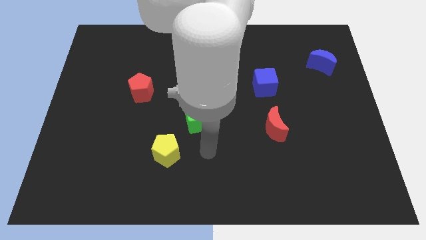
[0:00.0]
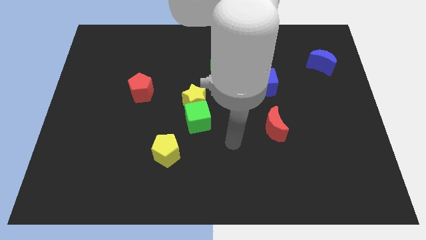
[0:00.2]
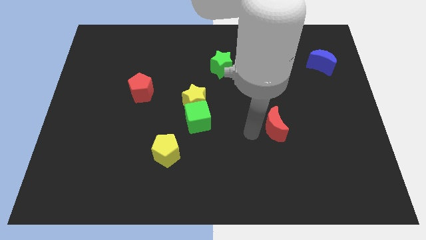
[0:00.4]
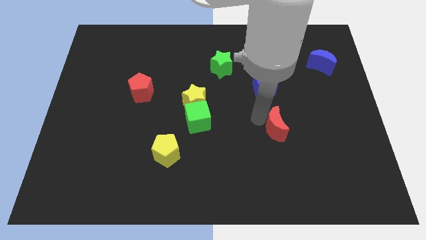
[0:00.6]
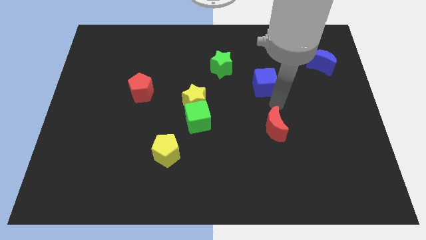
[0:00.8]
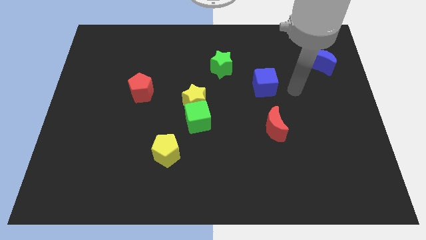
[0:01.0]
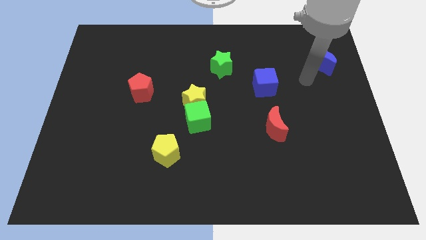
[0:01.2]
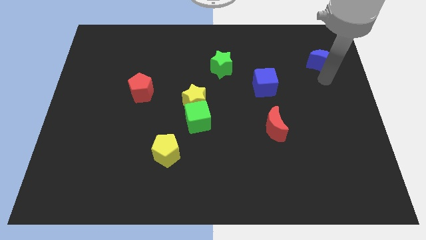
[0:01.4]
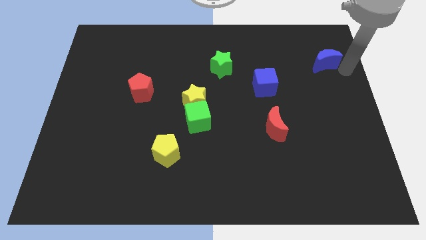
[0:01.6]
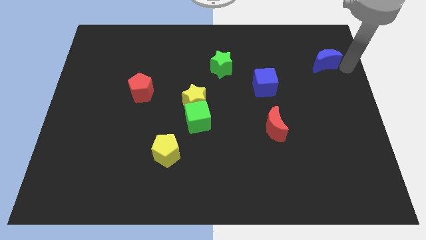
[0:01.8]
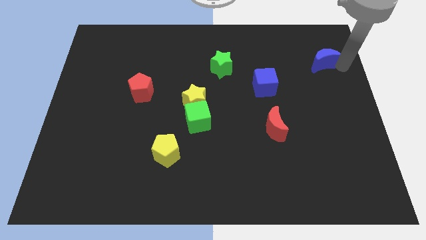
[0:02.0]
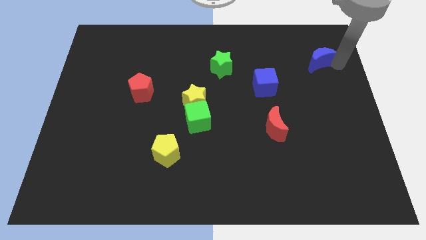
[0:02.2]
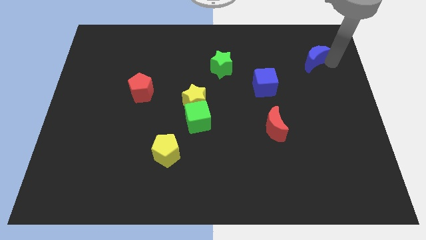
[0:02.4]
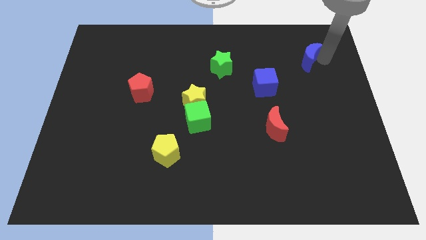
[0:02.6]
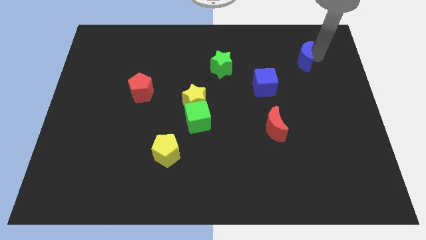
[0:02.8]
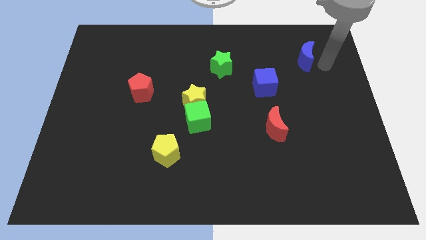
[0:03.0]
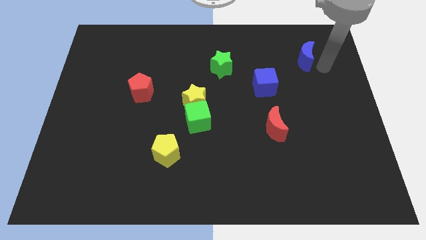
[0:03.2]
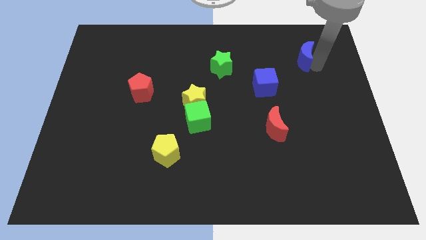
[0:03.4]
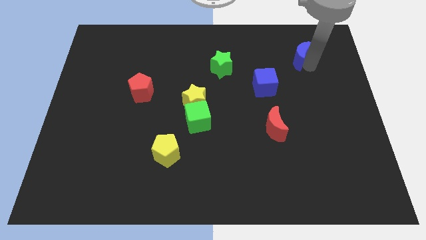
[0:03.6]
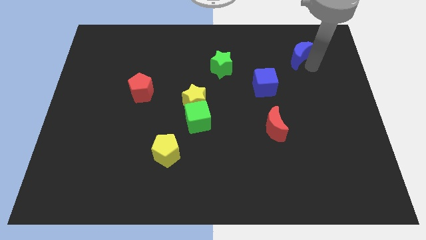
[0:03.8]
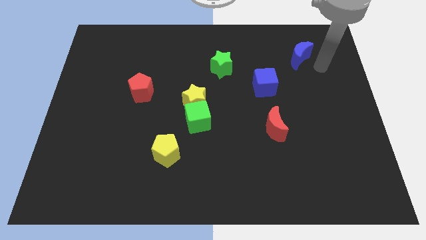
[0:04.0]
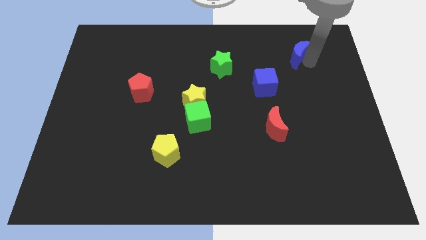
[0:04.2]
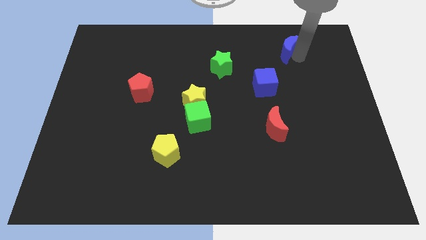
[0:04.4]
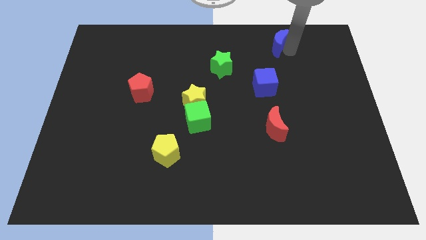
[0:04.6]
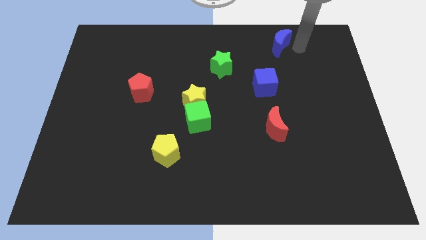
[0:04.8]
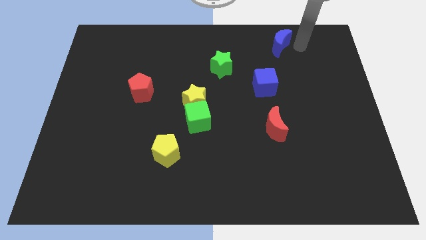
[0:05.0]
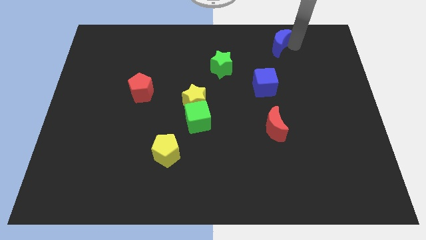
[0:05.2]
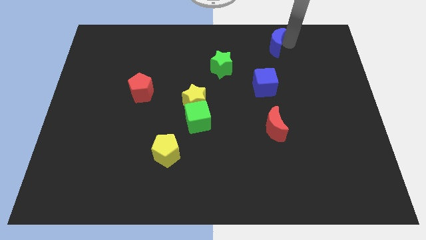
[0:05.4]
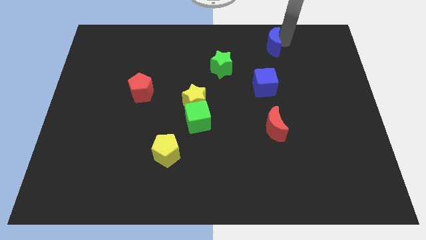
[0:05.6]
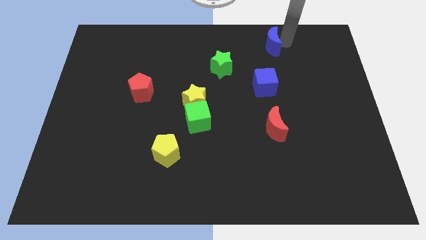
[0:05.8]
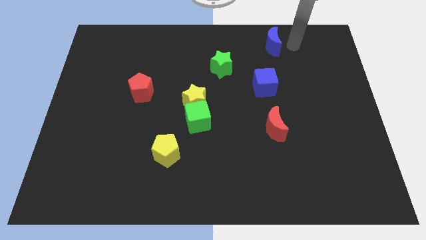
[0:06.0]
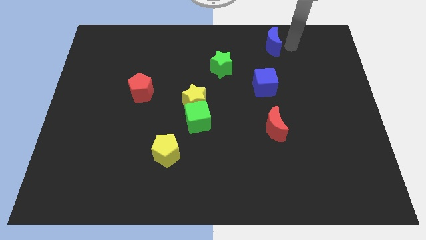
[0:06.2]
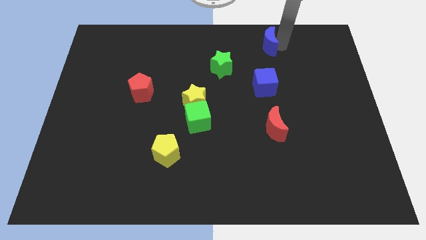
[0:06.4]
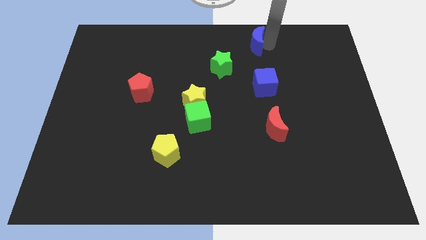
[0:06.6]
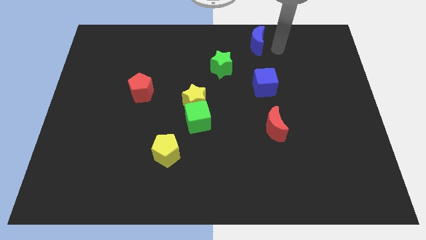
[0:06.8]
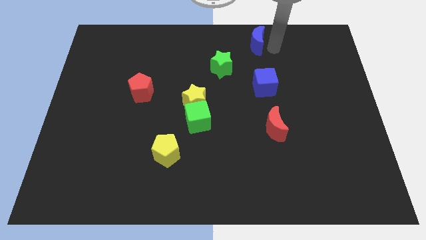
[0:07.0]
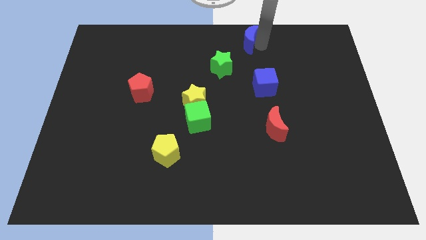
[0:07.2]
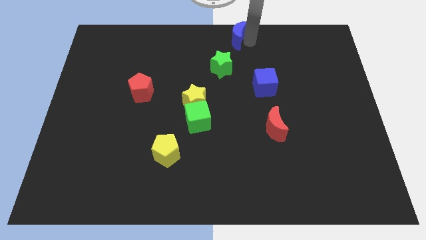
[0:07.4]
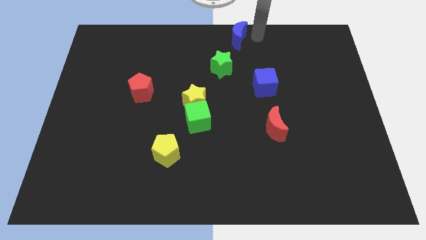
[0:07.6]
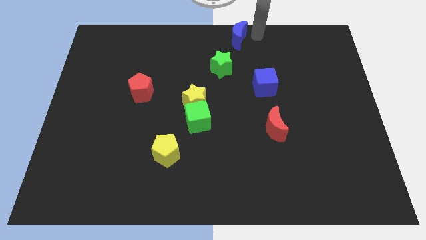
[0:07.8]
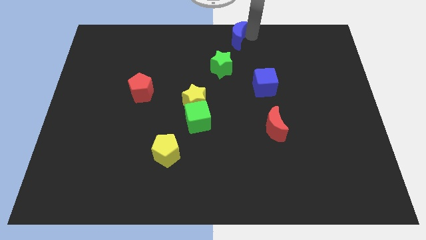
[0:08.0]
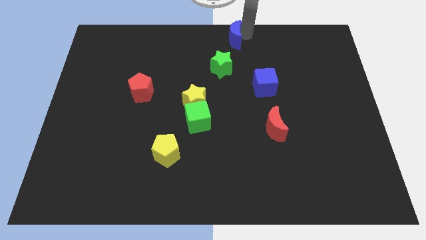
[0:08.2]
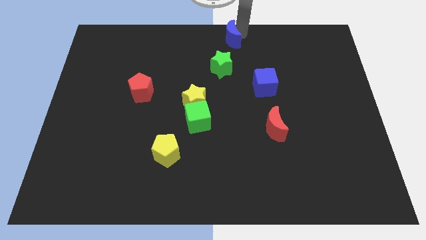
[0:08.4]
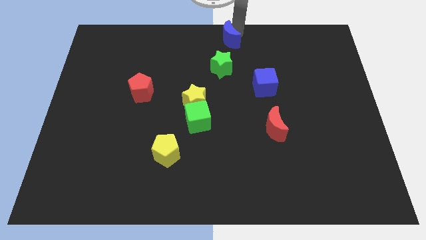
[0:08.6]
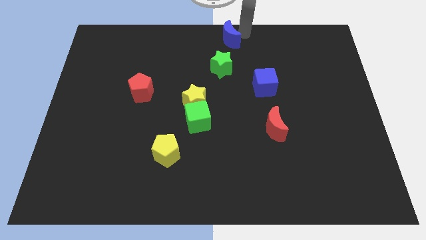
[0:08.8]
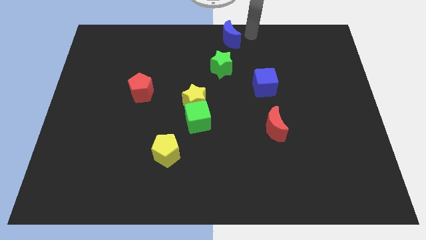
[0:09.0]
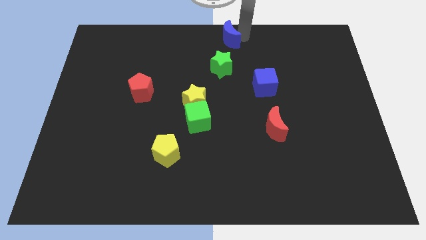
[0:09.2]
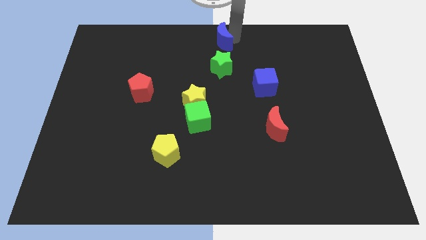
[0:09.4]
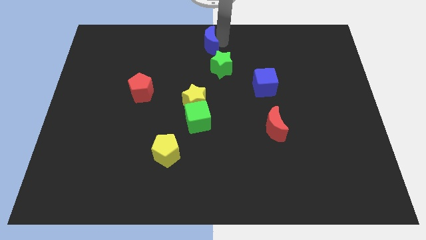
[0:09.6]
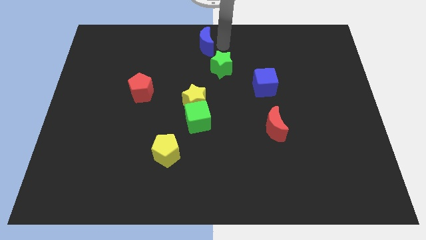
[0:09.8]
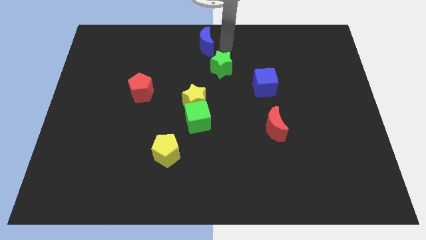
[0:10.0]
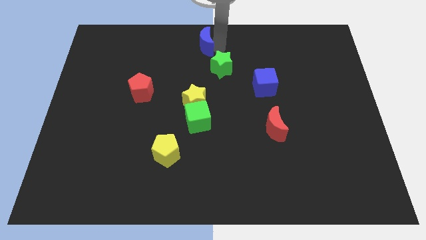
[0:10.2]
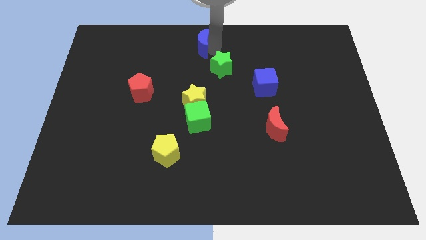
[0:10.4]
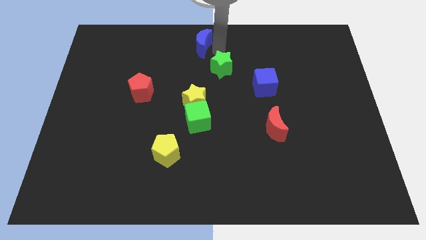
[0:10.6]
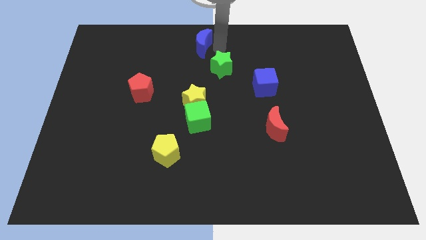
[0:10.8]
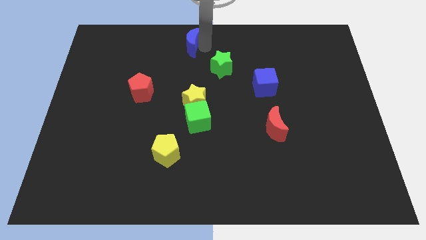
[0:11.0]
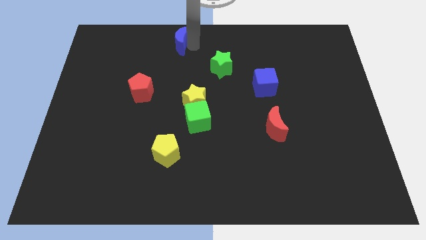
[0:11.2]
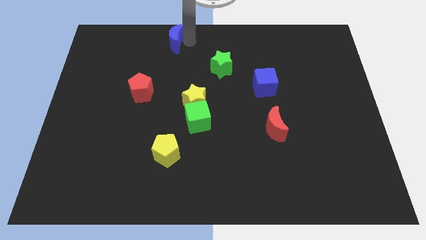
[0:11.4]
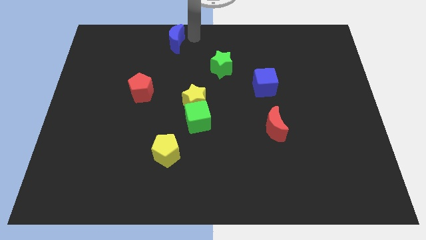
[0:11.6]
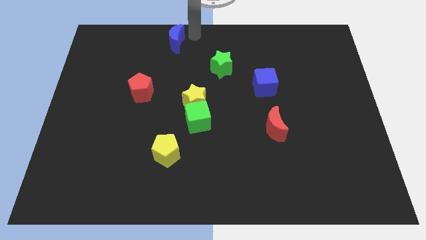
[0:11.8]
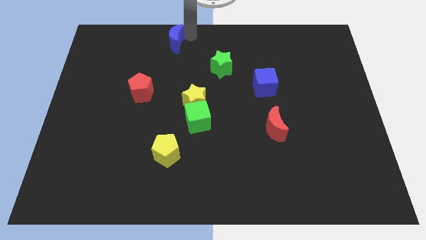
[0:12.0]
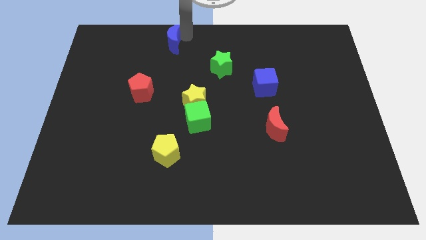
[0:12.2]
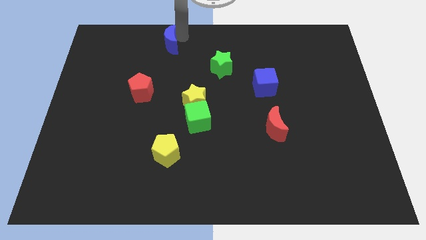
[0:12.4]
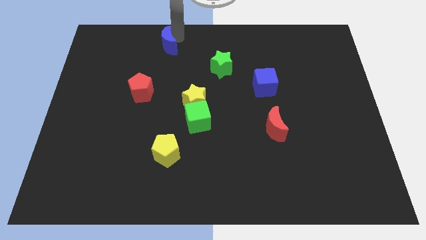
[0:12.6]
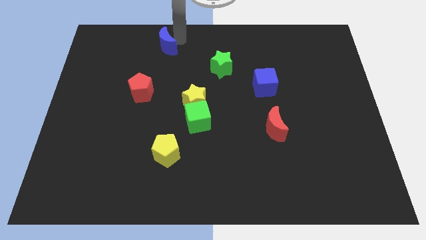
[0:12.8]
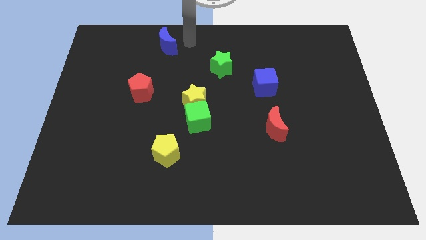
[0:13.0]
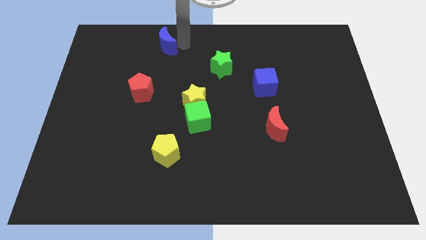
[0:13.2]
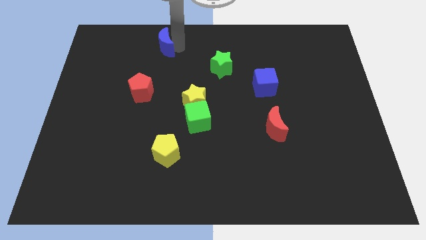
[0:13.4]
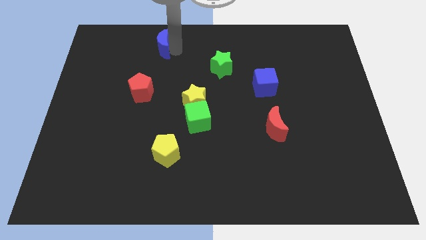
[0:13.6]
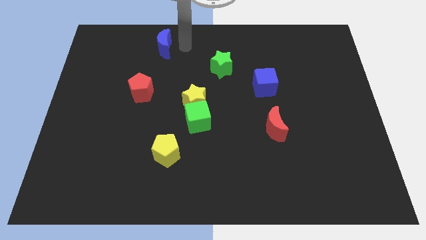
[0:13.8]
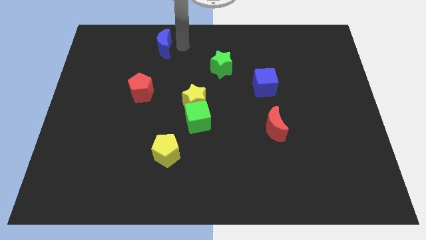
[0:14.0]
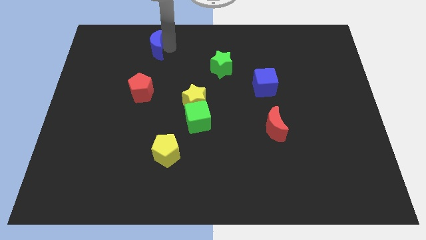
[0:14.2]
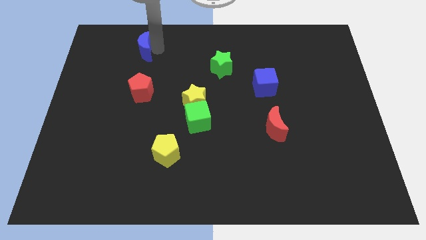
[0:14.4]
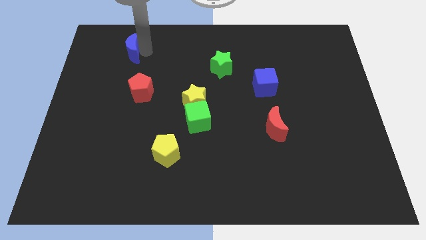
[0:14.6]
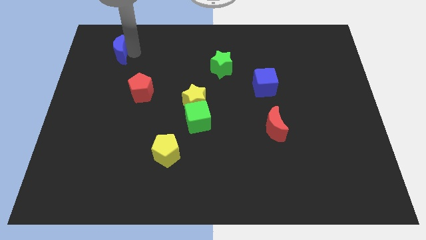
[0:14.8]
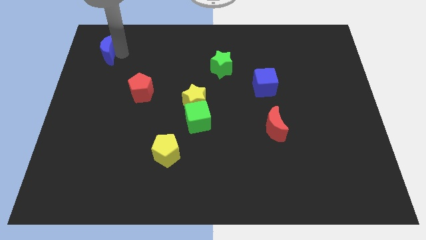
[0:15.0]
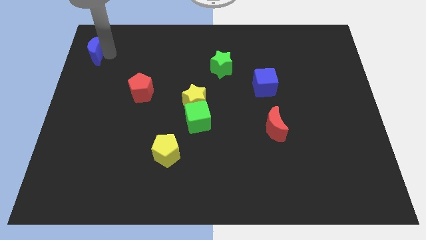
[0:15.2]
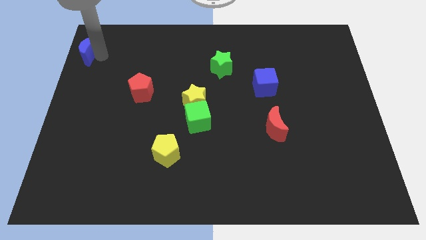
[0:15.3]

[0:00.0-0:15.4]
slide the blue moon to the top left of the board
